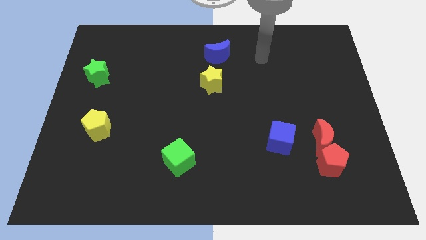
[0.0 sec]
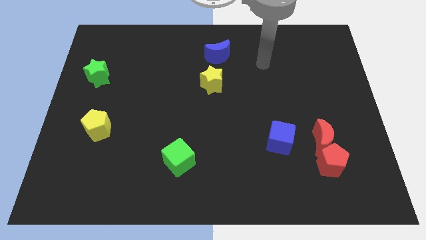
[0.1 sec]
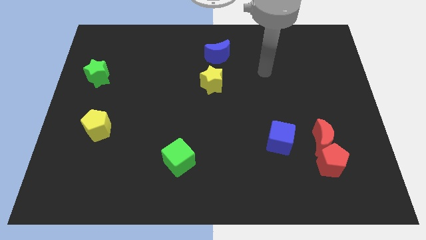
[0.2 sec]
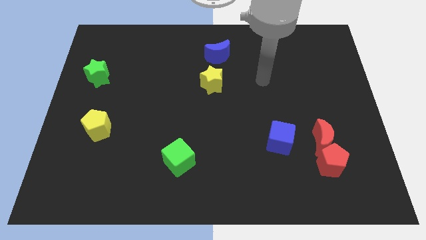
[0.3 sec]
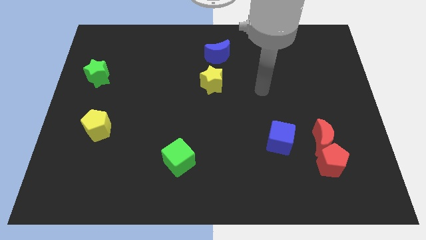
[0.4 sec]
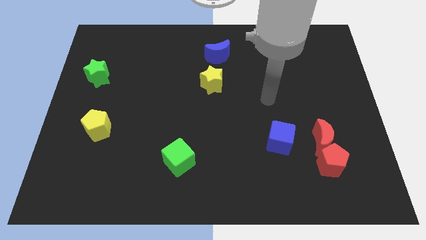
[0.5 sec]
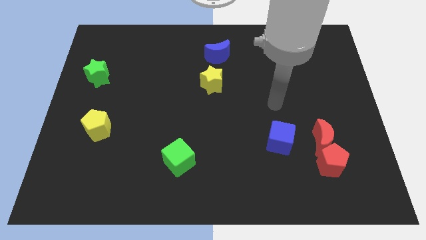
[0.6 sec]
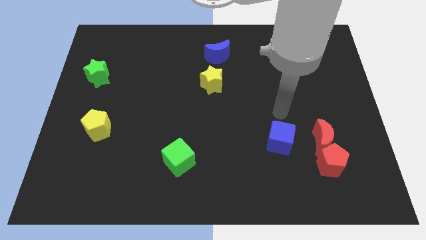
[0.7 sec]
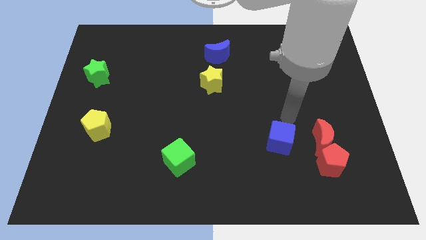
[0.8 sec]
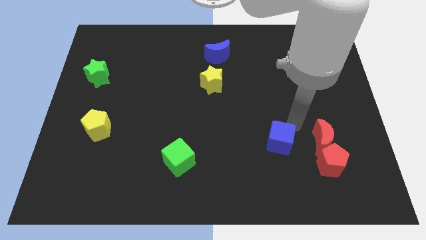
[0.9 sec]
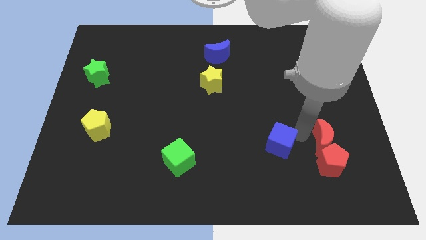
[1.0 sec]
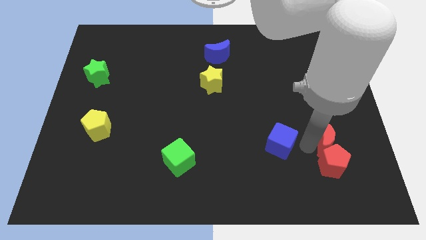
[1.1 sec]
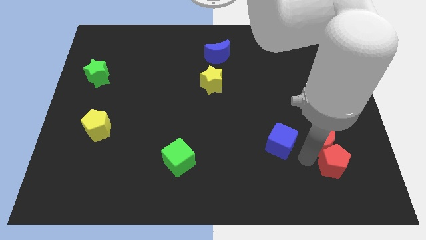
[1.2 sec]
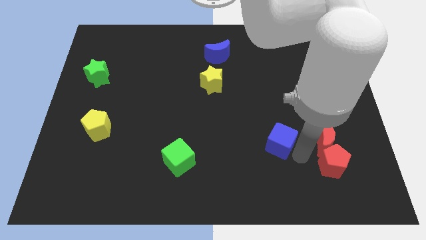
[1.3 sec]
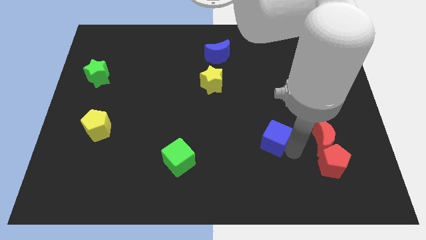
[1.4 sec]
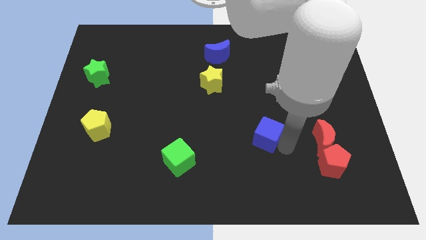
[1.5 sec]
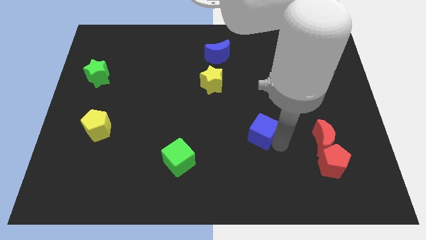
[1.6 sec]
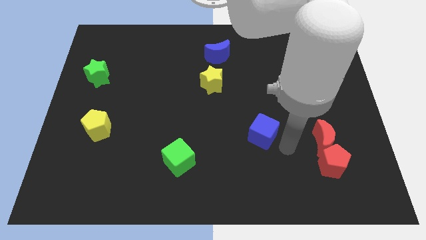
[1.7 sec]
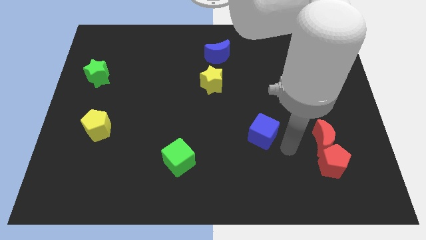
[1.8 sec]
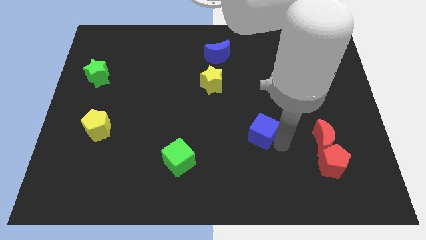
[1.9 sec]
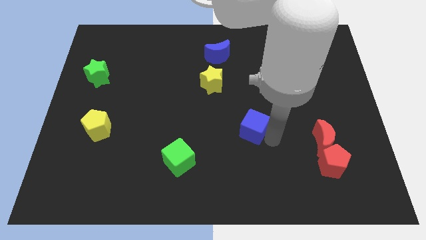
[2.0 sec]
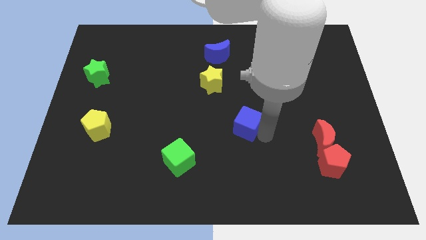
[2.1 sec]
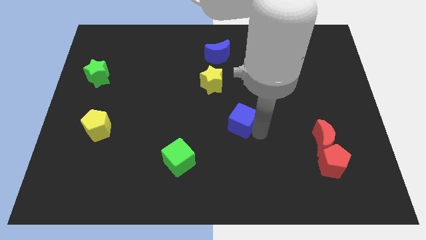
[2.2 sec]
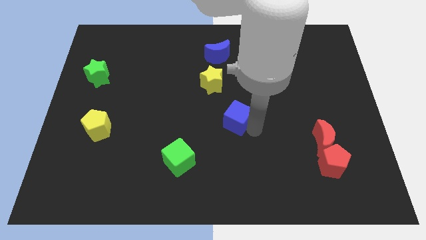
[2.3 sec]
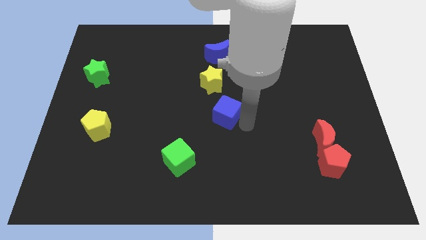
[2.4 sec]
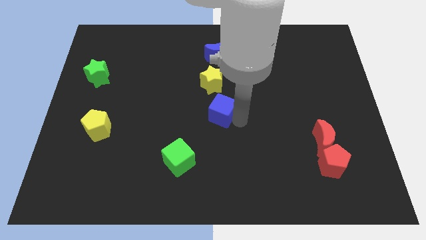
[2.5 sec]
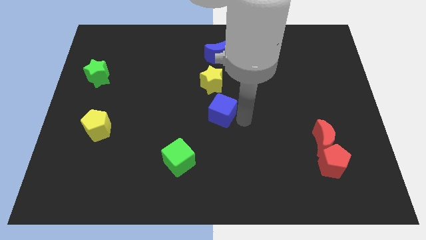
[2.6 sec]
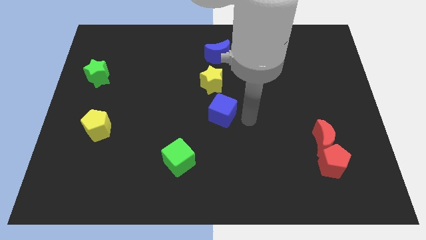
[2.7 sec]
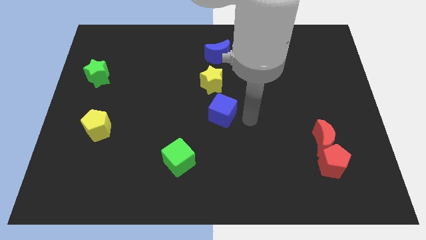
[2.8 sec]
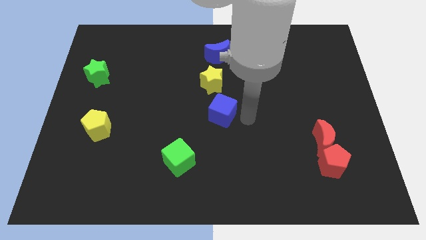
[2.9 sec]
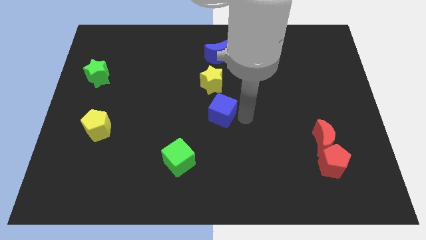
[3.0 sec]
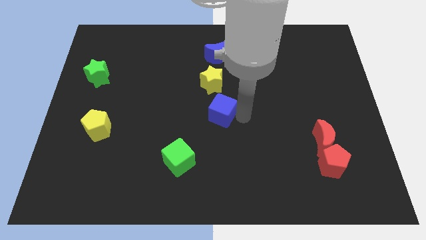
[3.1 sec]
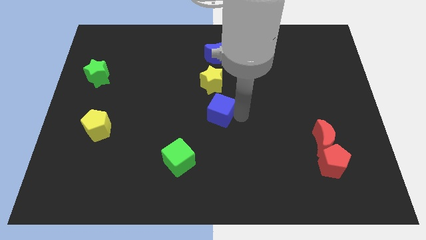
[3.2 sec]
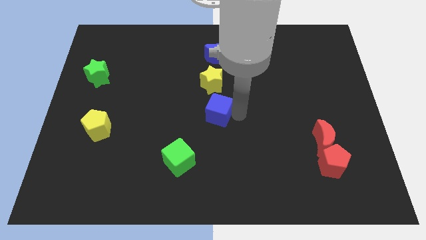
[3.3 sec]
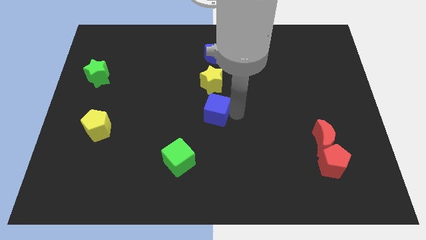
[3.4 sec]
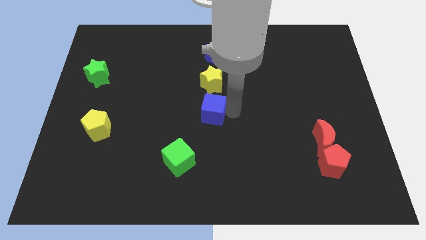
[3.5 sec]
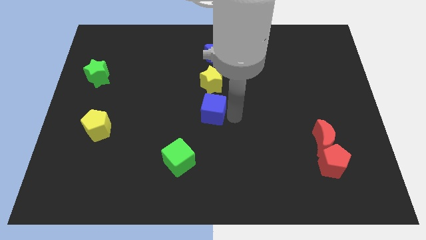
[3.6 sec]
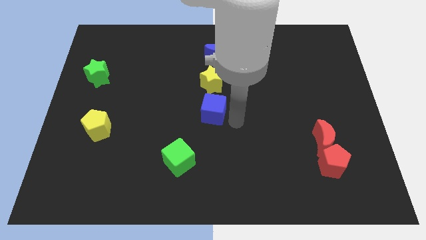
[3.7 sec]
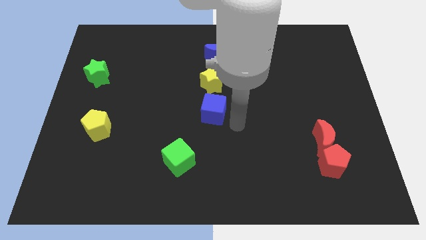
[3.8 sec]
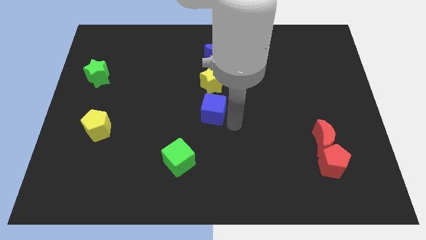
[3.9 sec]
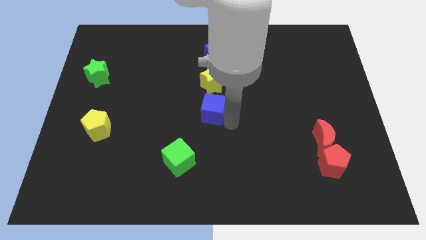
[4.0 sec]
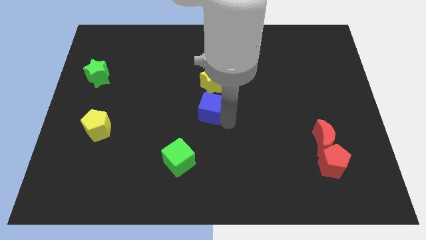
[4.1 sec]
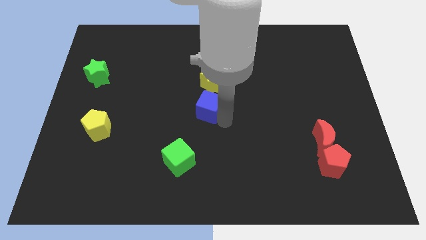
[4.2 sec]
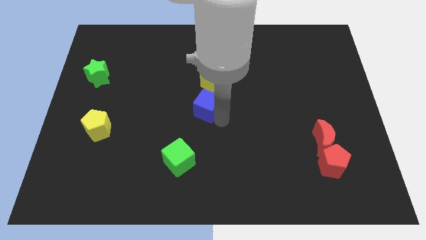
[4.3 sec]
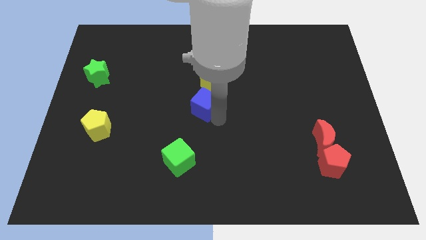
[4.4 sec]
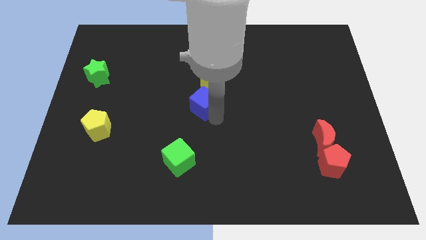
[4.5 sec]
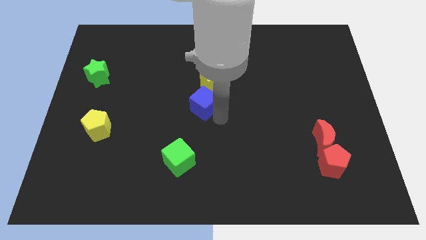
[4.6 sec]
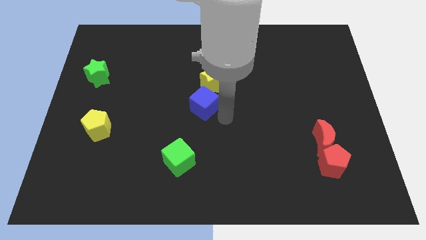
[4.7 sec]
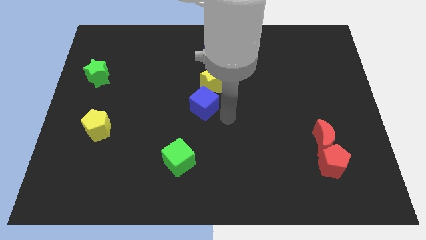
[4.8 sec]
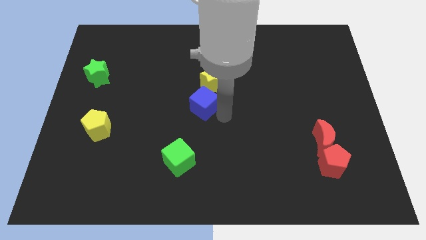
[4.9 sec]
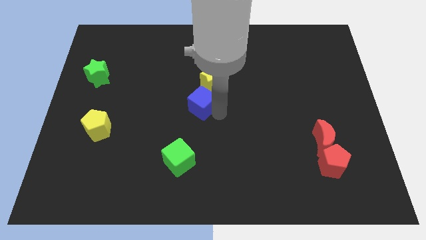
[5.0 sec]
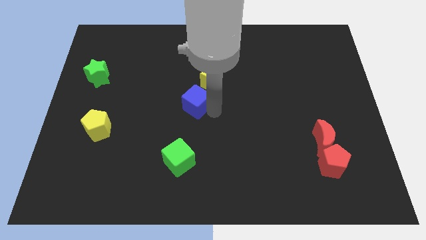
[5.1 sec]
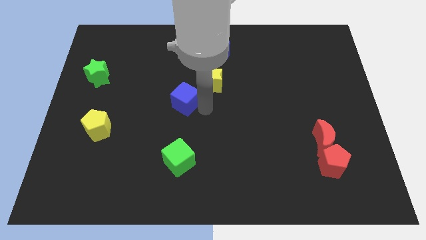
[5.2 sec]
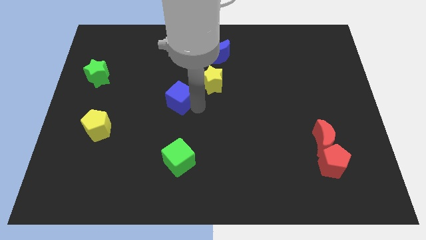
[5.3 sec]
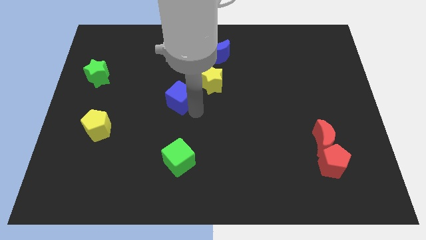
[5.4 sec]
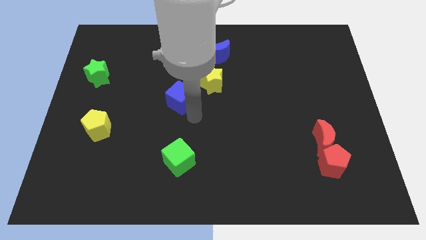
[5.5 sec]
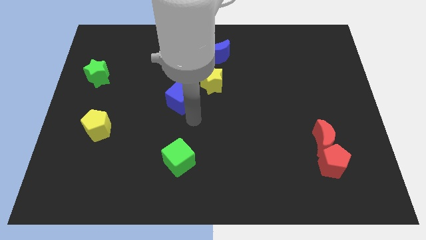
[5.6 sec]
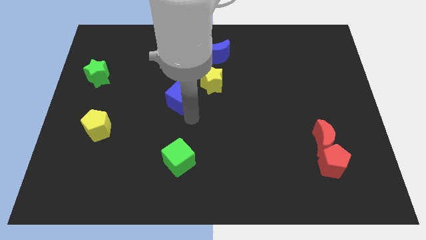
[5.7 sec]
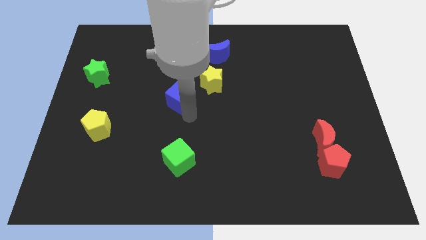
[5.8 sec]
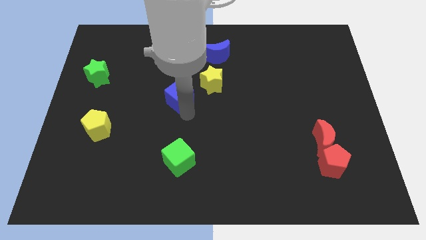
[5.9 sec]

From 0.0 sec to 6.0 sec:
move the blue cube just left of the yellow star

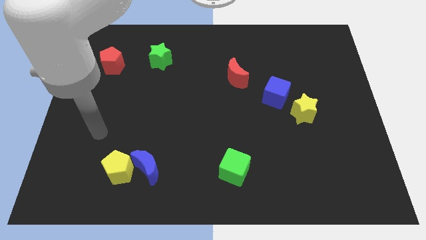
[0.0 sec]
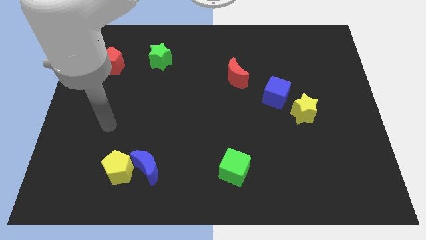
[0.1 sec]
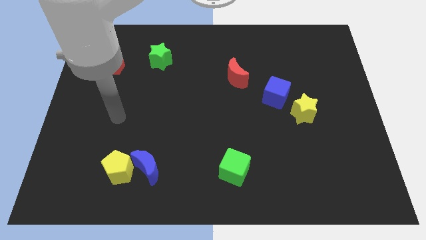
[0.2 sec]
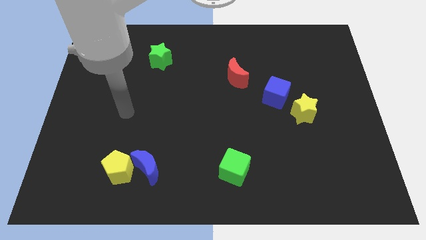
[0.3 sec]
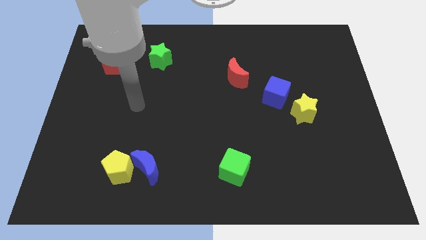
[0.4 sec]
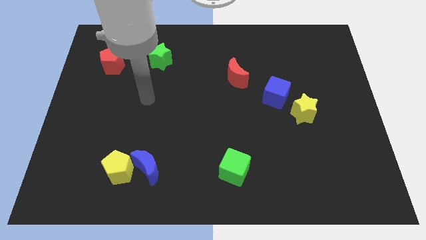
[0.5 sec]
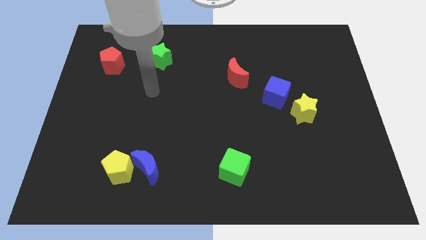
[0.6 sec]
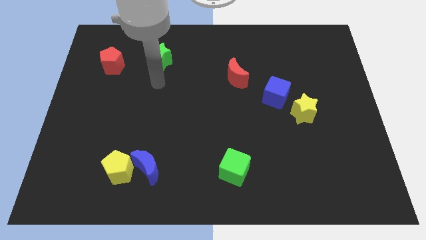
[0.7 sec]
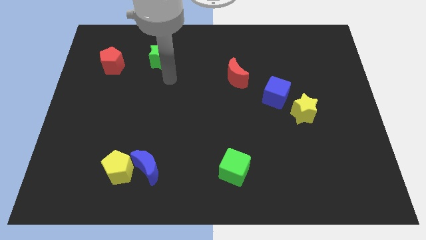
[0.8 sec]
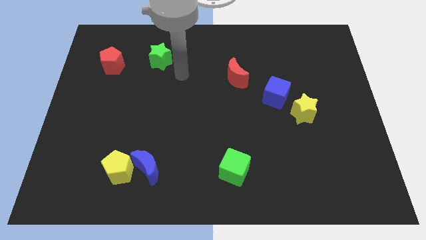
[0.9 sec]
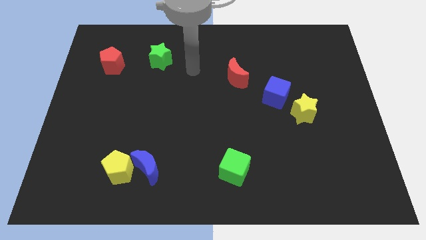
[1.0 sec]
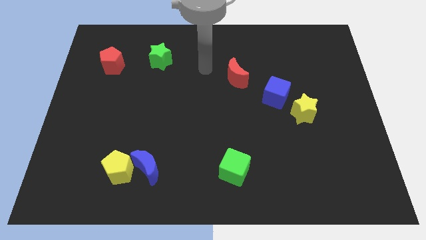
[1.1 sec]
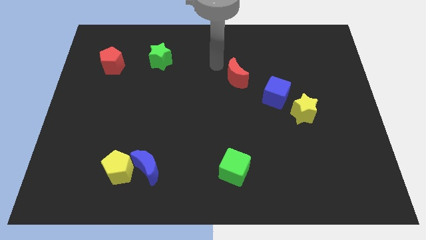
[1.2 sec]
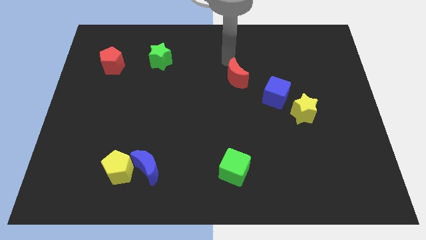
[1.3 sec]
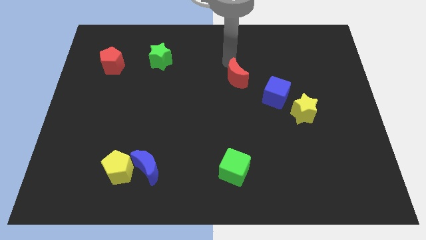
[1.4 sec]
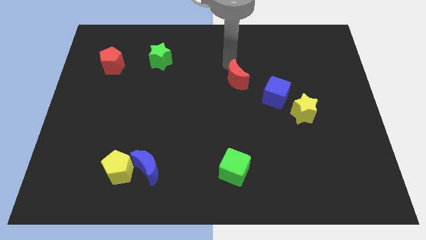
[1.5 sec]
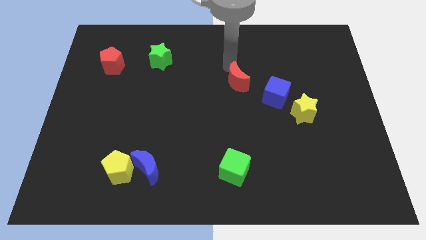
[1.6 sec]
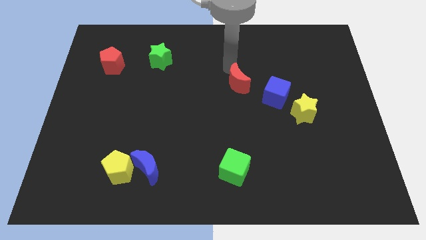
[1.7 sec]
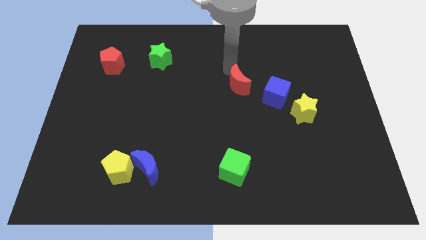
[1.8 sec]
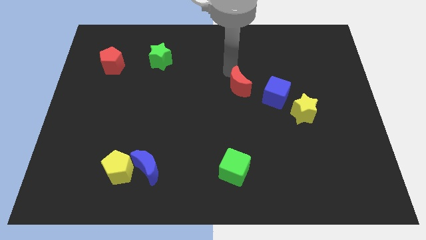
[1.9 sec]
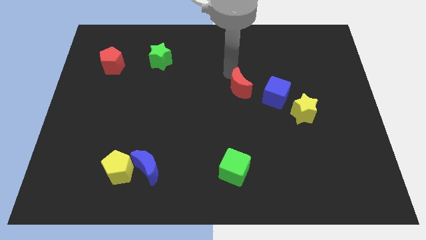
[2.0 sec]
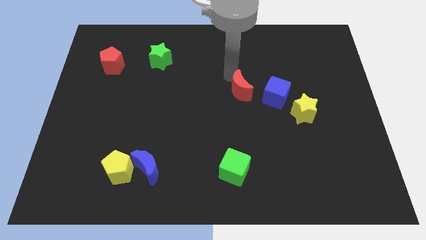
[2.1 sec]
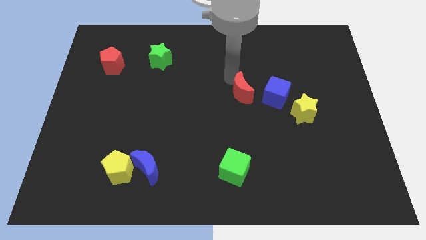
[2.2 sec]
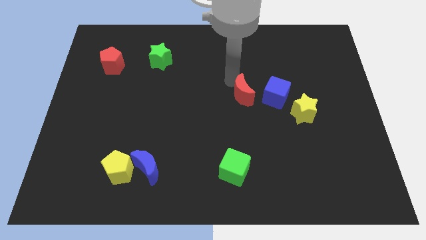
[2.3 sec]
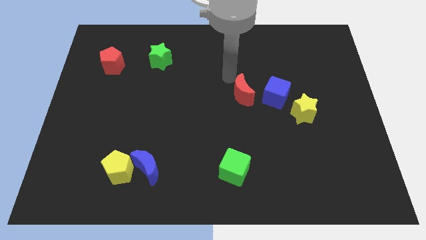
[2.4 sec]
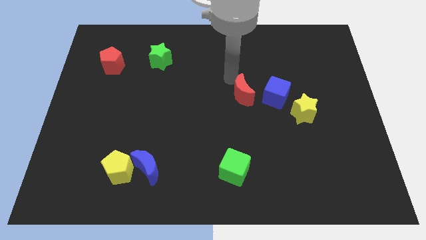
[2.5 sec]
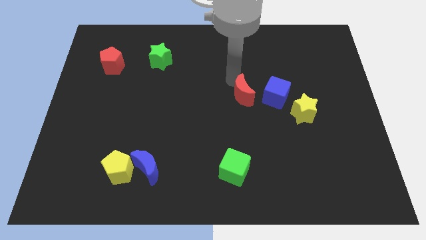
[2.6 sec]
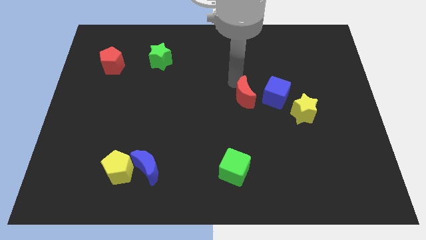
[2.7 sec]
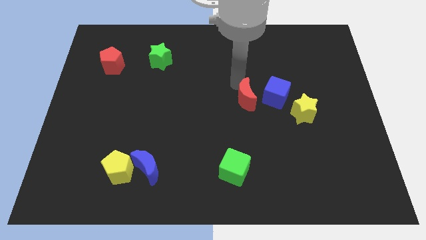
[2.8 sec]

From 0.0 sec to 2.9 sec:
move the red moon to the bottom left of the blue cube
